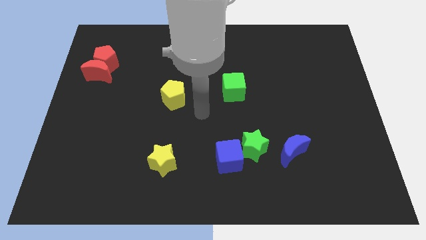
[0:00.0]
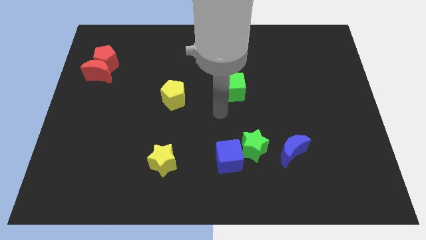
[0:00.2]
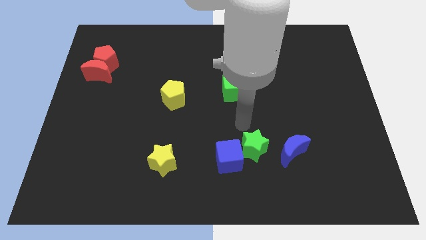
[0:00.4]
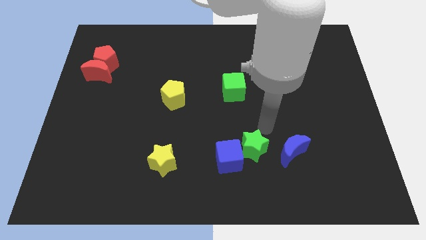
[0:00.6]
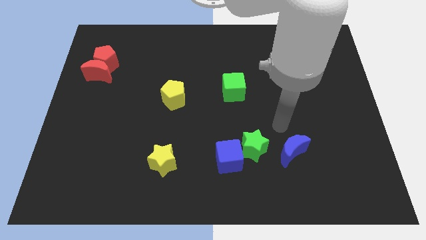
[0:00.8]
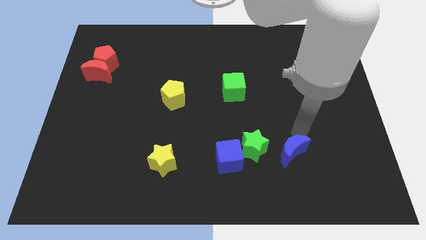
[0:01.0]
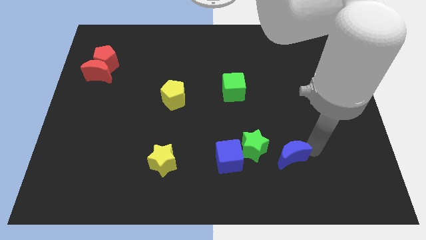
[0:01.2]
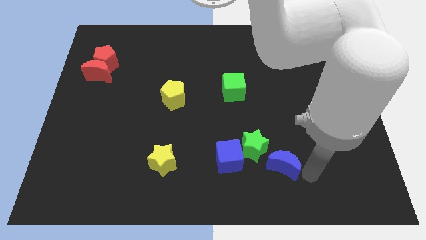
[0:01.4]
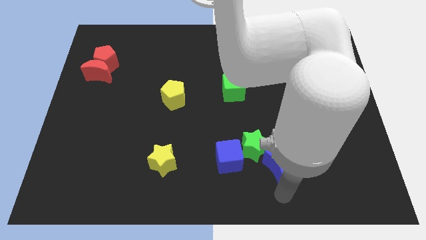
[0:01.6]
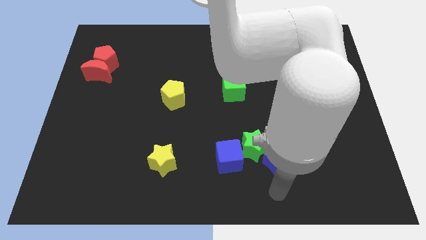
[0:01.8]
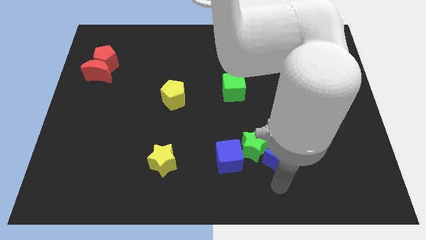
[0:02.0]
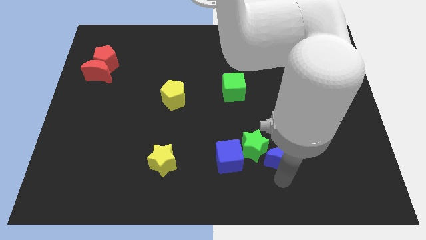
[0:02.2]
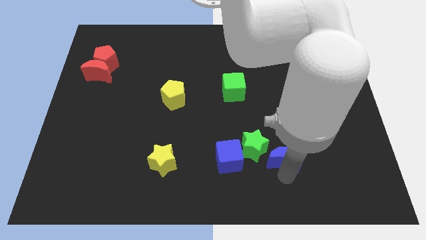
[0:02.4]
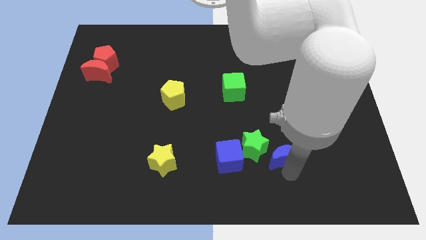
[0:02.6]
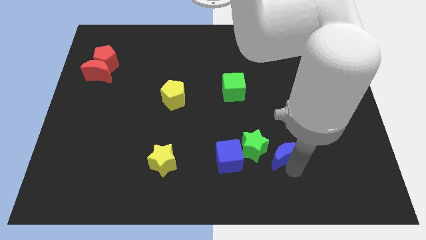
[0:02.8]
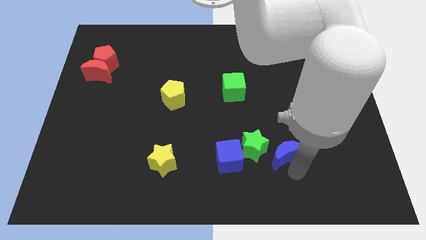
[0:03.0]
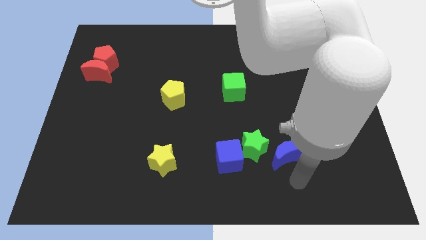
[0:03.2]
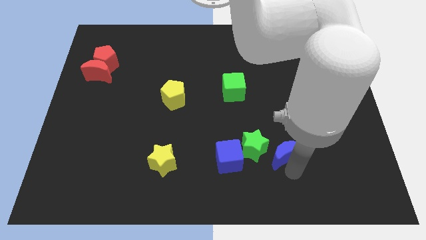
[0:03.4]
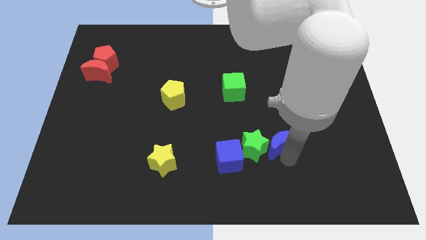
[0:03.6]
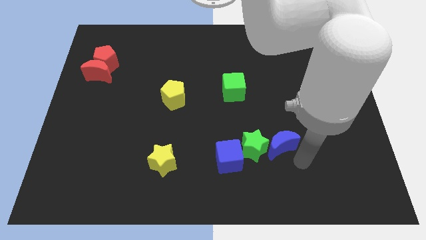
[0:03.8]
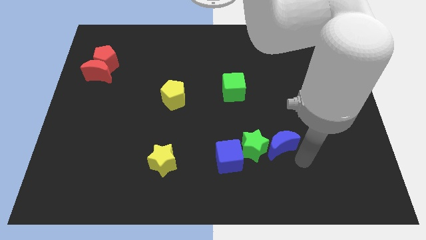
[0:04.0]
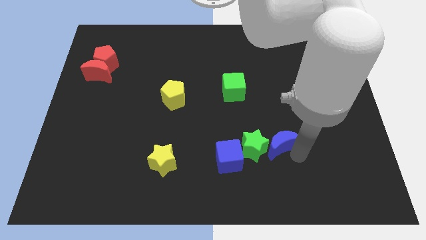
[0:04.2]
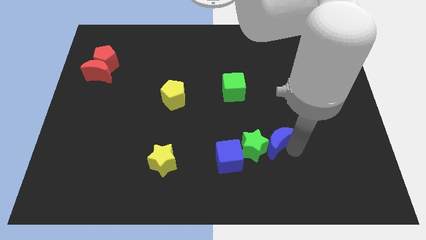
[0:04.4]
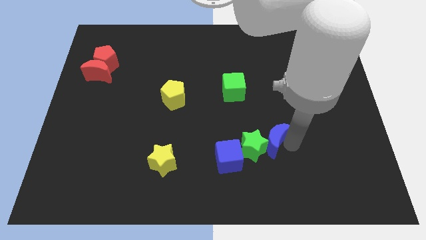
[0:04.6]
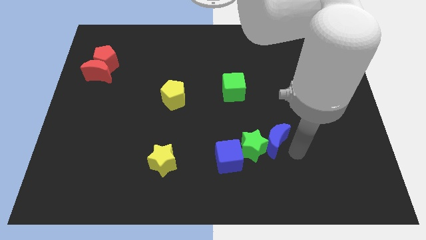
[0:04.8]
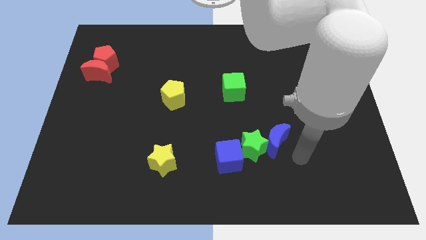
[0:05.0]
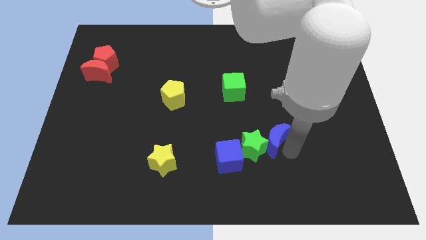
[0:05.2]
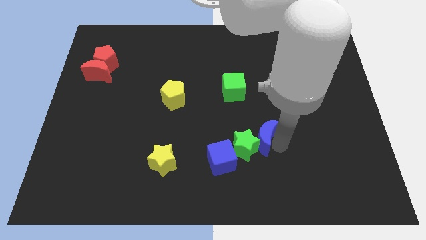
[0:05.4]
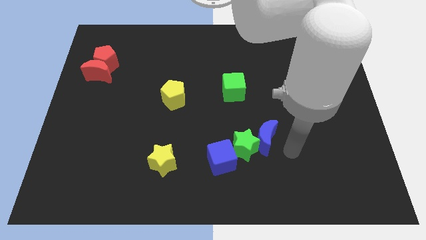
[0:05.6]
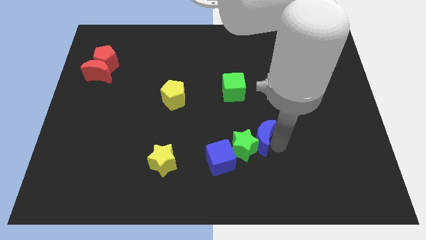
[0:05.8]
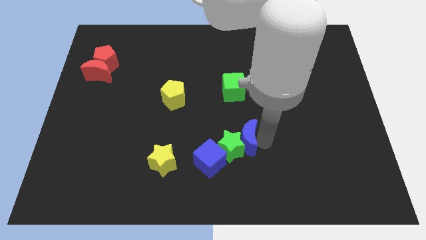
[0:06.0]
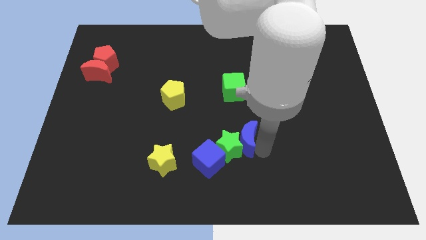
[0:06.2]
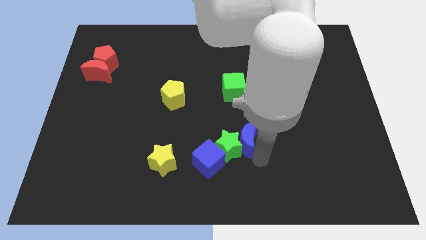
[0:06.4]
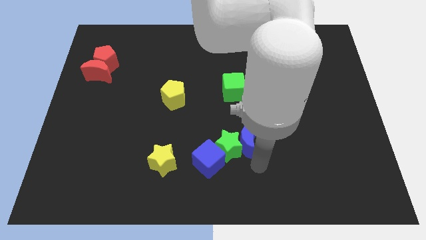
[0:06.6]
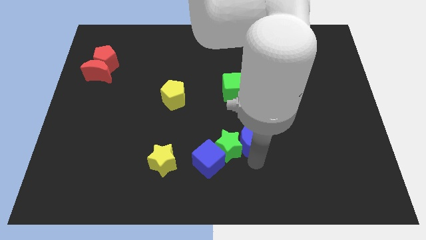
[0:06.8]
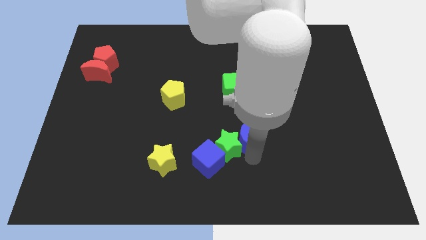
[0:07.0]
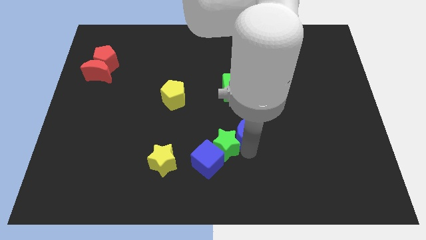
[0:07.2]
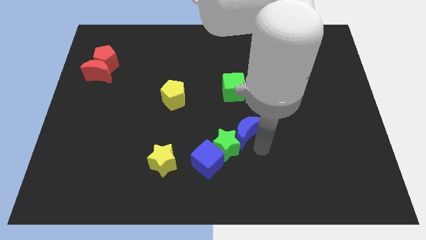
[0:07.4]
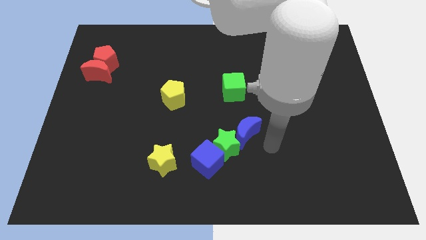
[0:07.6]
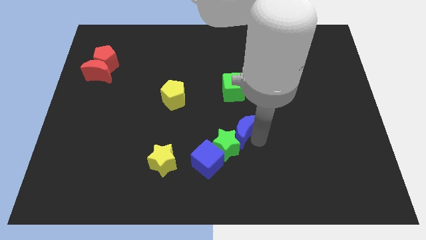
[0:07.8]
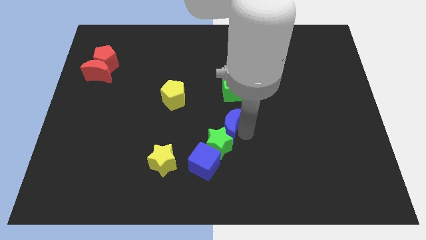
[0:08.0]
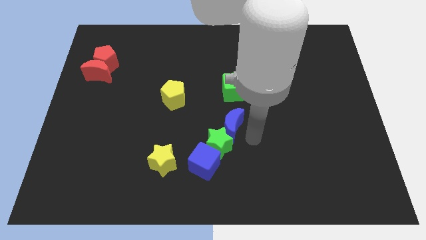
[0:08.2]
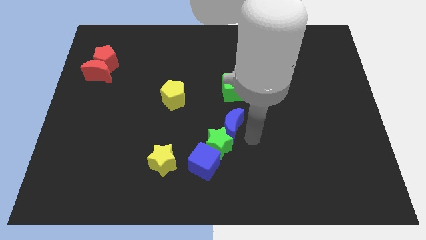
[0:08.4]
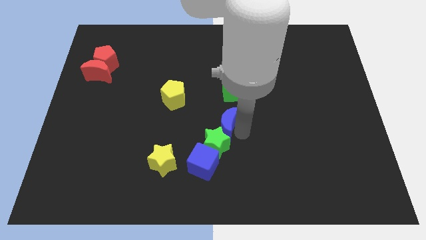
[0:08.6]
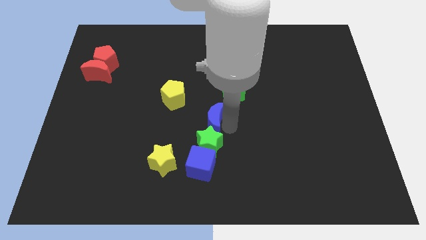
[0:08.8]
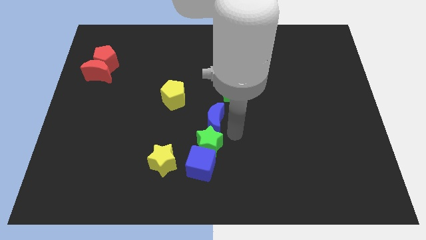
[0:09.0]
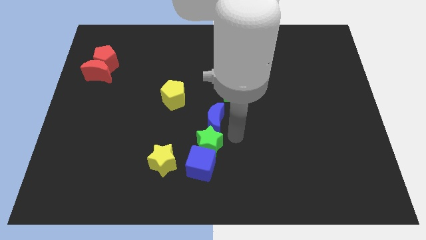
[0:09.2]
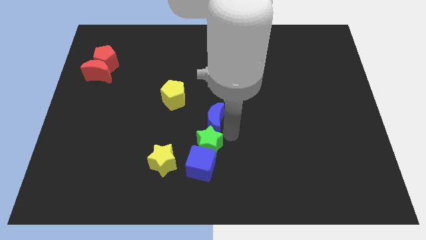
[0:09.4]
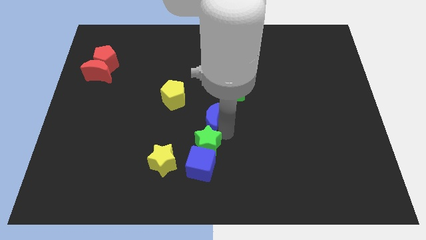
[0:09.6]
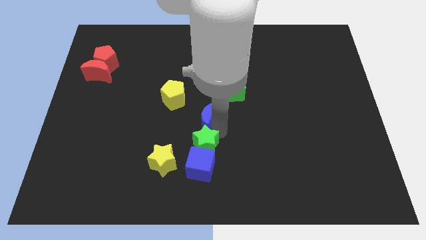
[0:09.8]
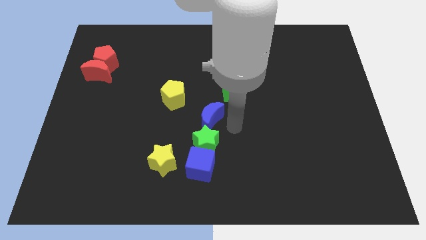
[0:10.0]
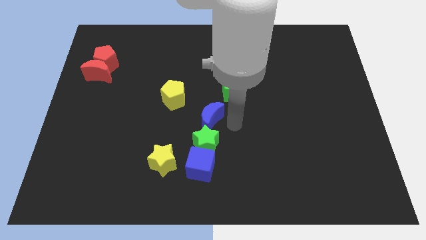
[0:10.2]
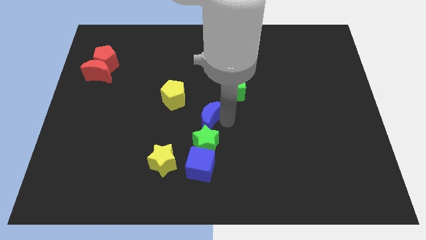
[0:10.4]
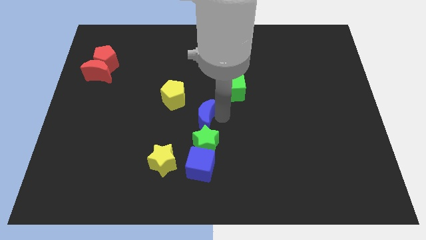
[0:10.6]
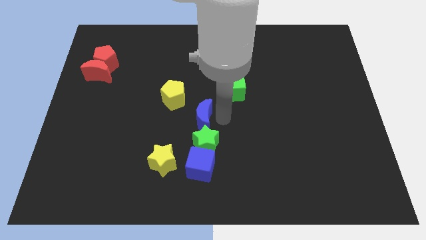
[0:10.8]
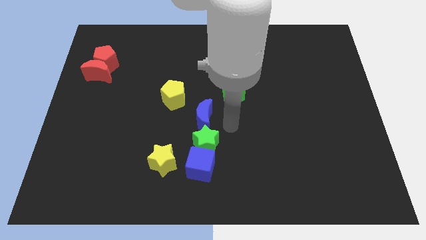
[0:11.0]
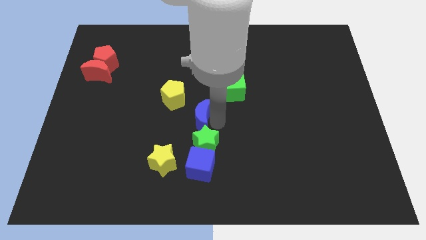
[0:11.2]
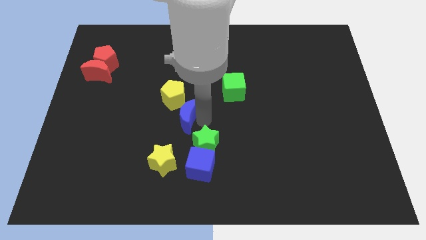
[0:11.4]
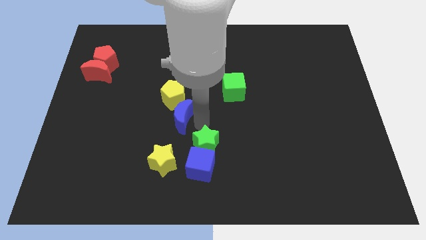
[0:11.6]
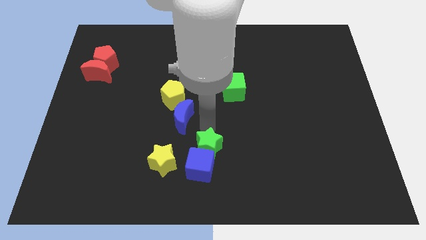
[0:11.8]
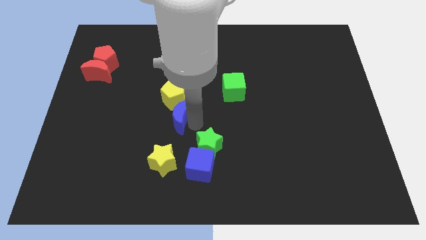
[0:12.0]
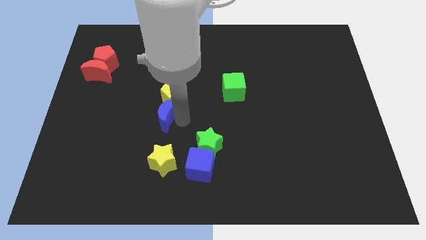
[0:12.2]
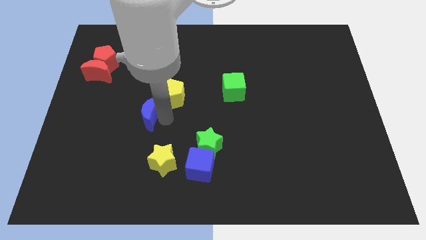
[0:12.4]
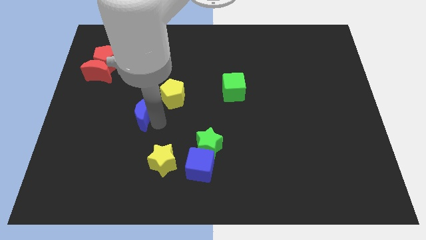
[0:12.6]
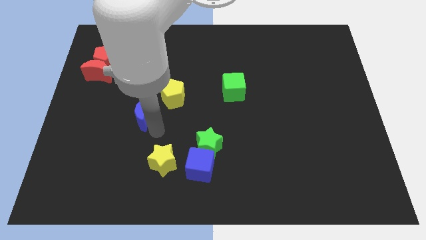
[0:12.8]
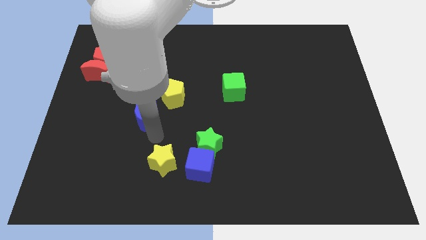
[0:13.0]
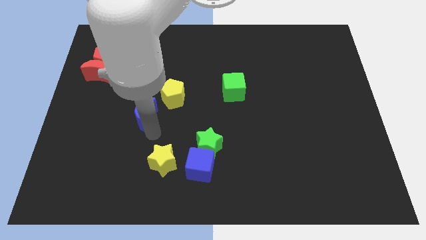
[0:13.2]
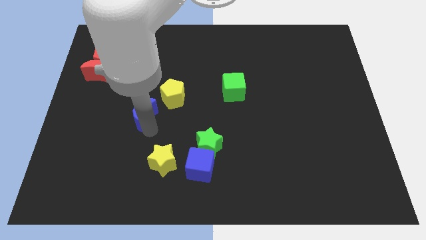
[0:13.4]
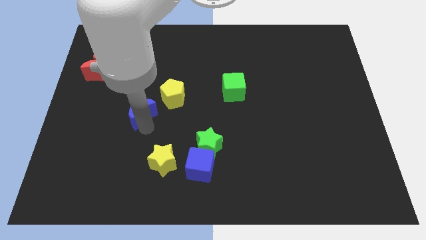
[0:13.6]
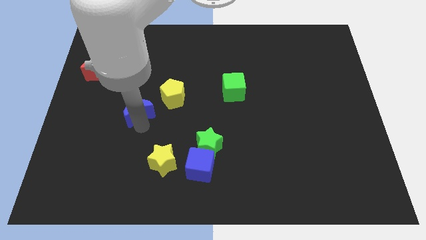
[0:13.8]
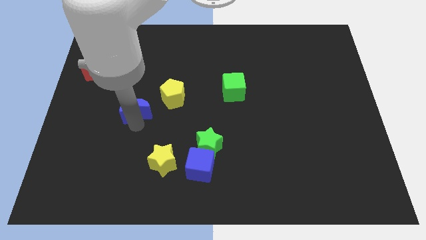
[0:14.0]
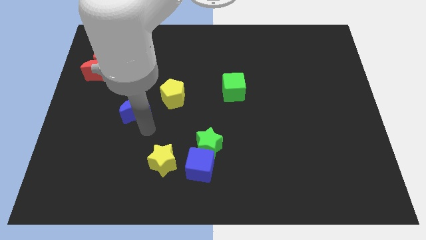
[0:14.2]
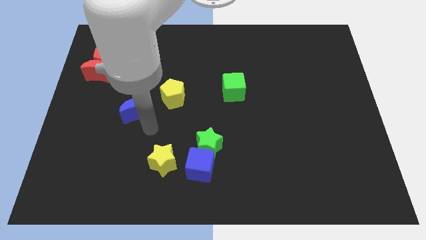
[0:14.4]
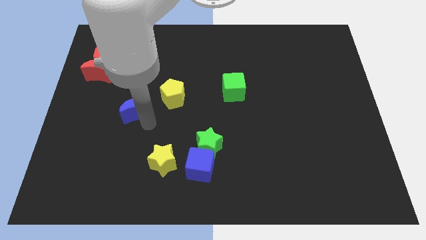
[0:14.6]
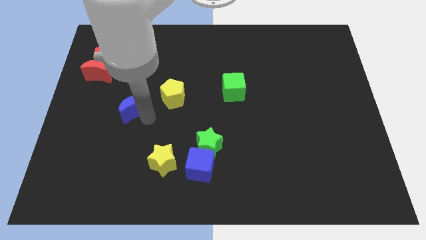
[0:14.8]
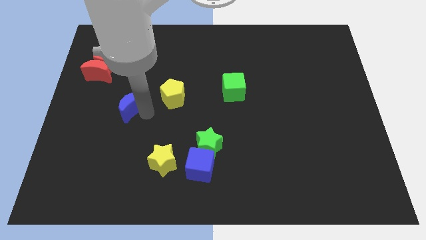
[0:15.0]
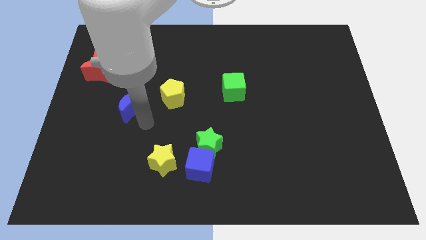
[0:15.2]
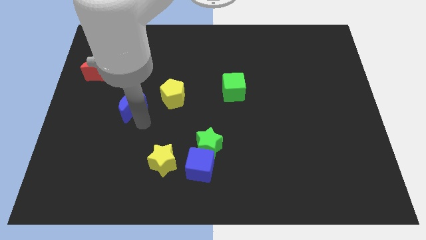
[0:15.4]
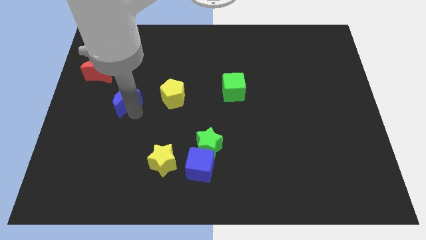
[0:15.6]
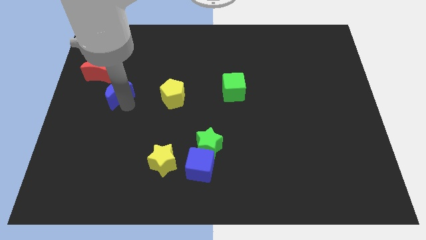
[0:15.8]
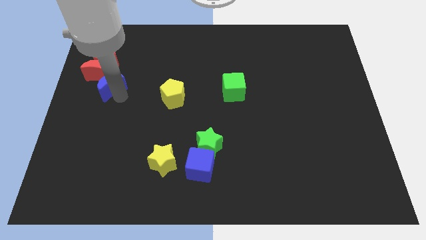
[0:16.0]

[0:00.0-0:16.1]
put the blue moon towards the red moon
